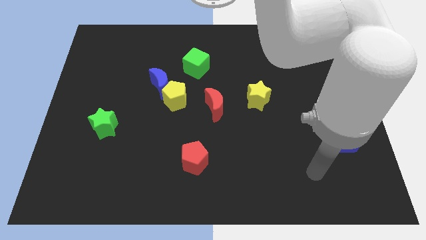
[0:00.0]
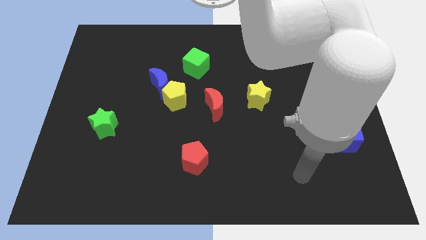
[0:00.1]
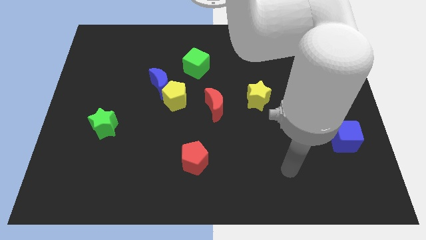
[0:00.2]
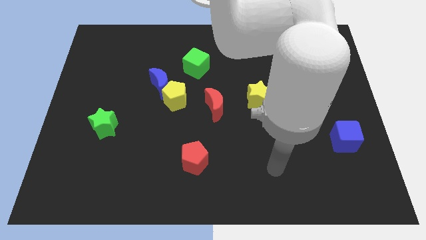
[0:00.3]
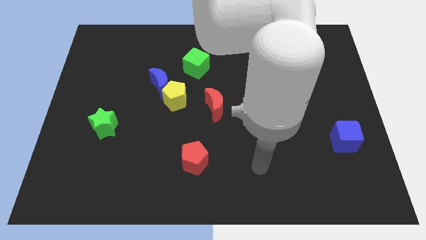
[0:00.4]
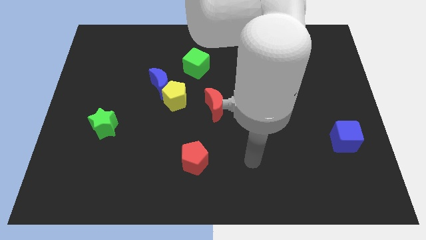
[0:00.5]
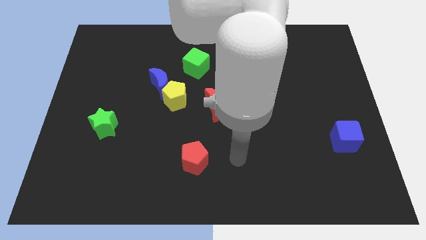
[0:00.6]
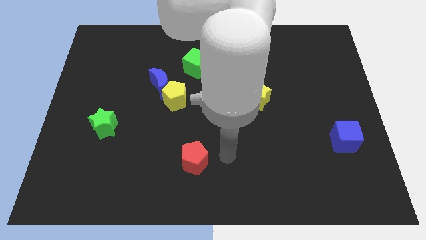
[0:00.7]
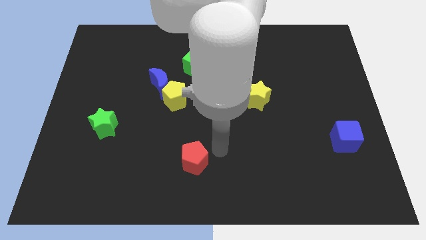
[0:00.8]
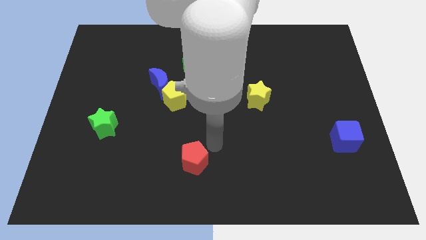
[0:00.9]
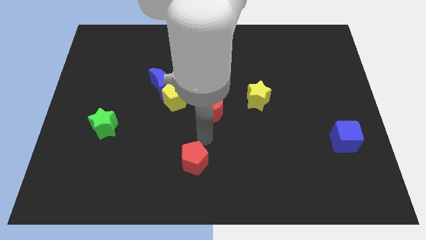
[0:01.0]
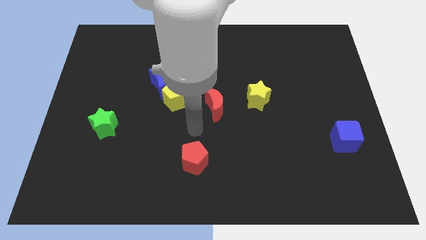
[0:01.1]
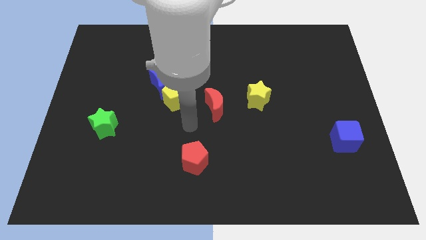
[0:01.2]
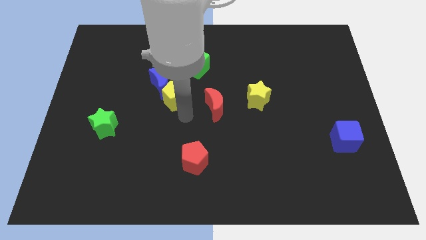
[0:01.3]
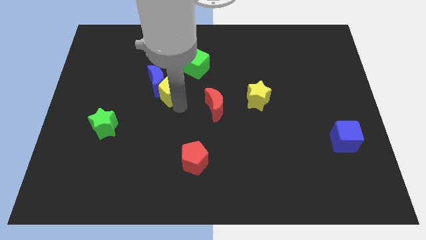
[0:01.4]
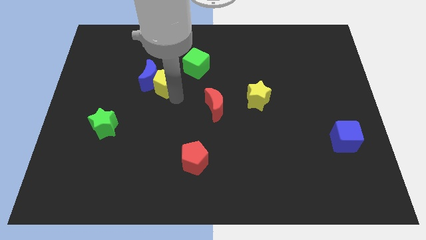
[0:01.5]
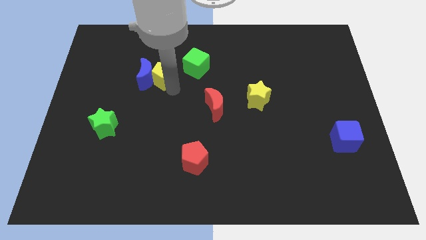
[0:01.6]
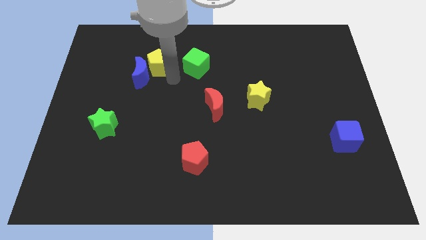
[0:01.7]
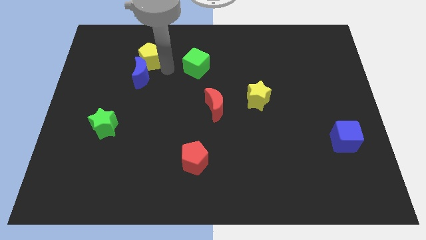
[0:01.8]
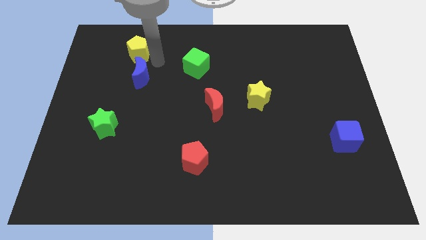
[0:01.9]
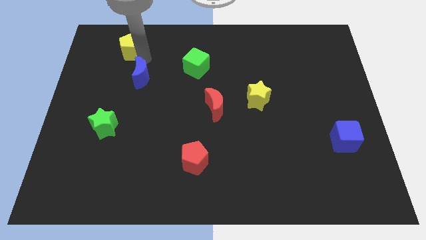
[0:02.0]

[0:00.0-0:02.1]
move the blue moon away from the yellow pentagon

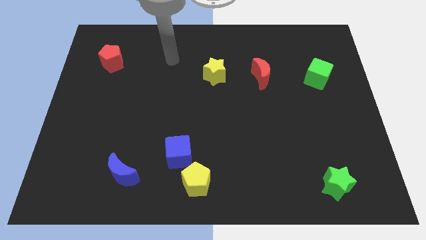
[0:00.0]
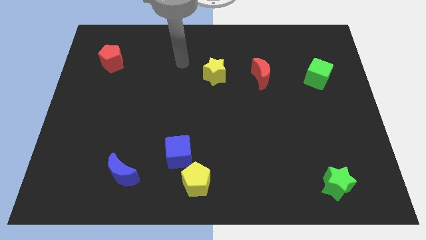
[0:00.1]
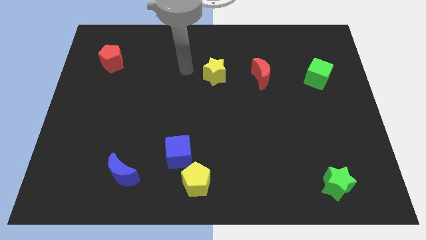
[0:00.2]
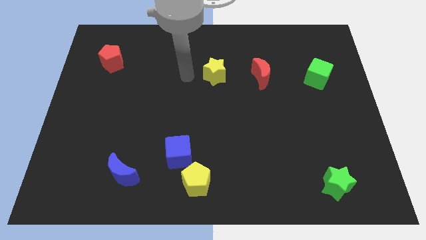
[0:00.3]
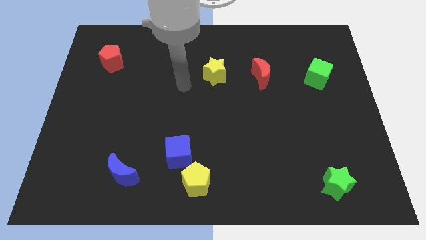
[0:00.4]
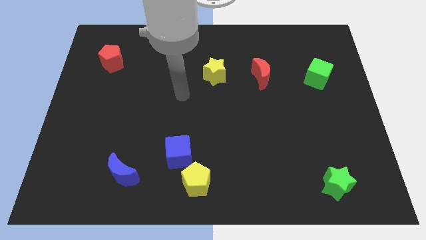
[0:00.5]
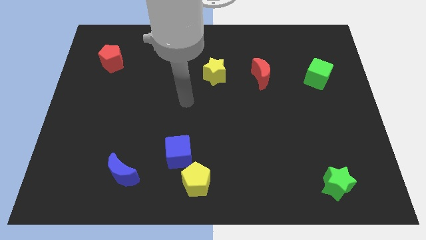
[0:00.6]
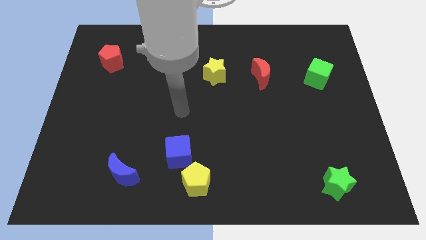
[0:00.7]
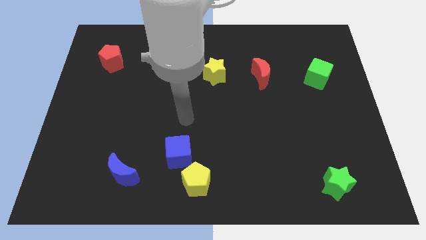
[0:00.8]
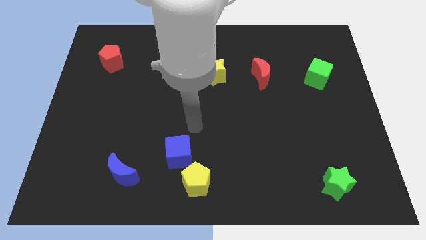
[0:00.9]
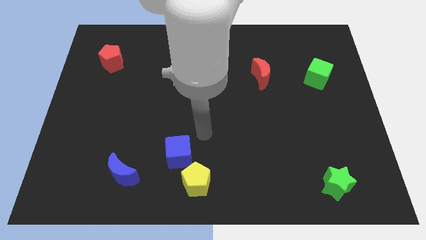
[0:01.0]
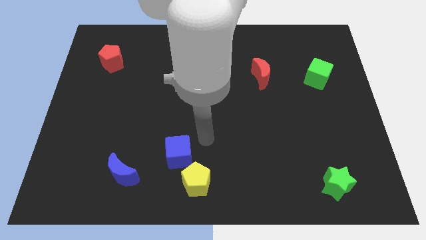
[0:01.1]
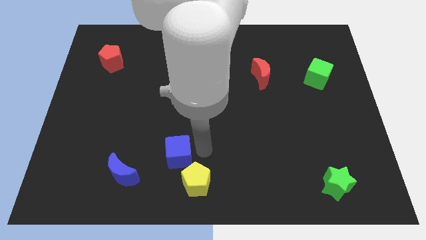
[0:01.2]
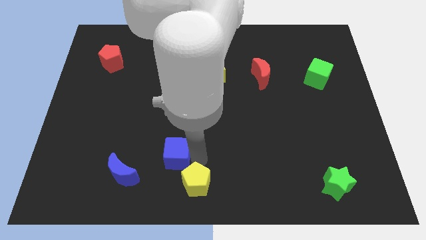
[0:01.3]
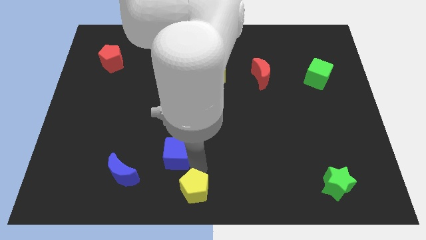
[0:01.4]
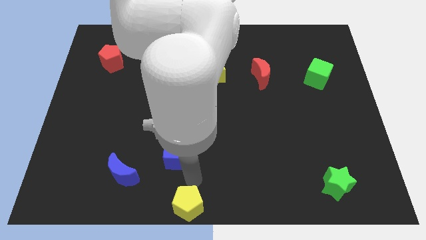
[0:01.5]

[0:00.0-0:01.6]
pull the blue cube apart from the yellow pentagon

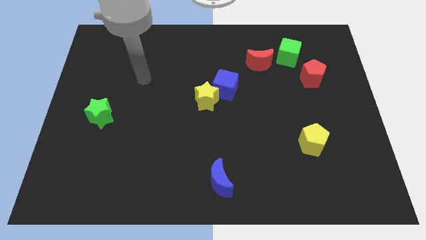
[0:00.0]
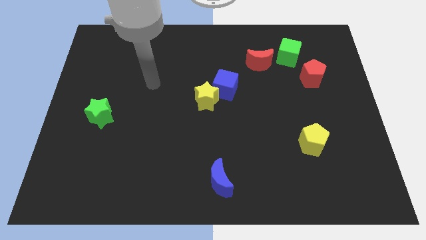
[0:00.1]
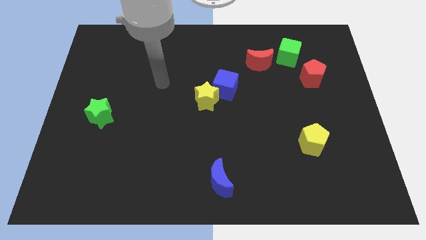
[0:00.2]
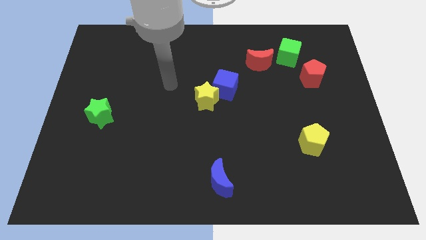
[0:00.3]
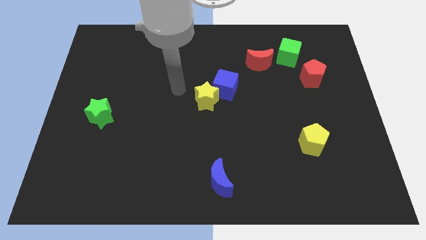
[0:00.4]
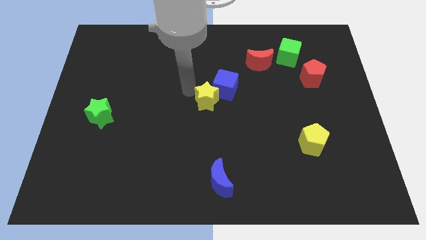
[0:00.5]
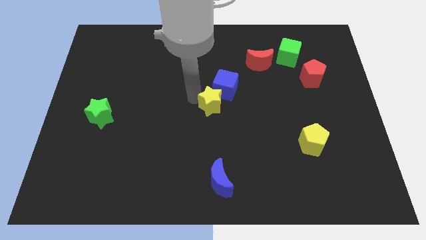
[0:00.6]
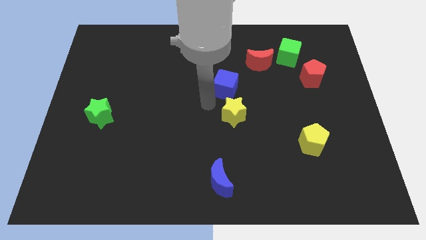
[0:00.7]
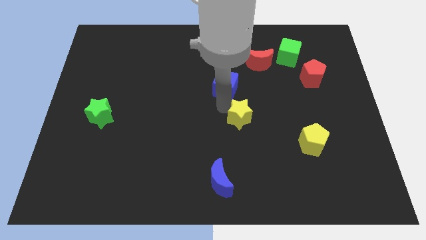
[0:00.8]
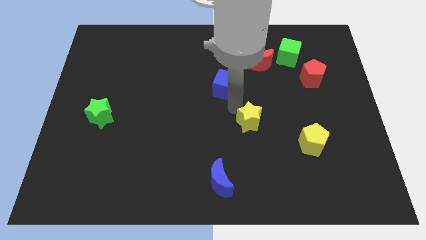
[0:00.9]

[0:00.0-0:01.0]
move the blue cube away from the yellow star

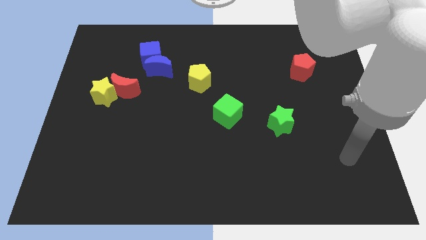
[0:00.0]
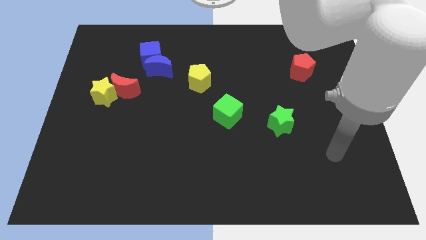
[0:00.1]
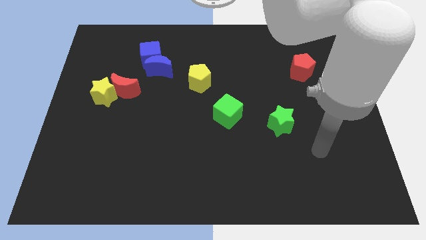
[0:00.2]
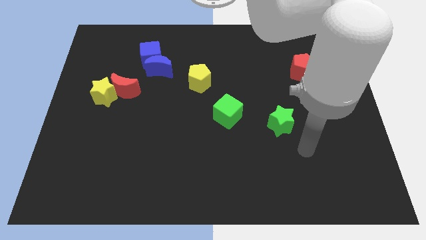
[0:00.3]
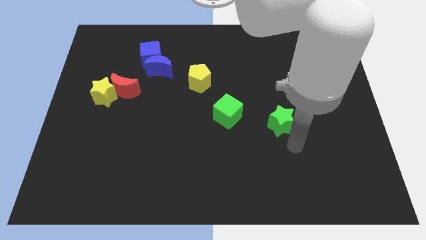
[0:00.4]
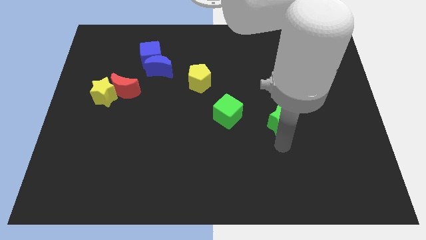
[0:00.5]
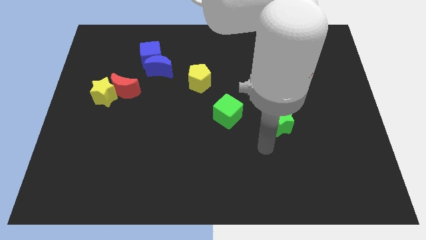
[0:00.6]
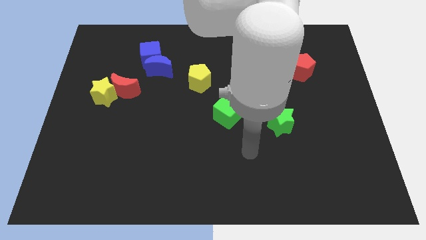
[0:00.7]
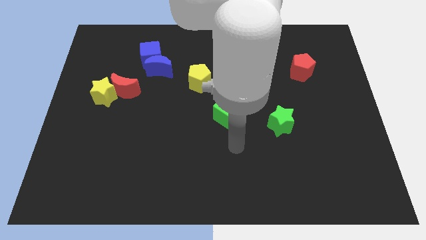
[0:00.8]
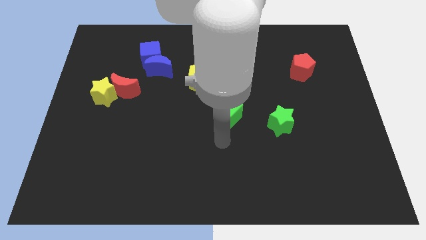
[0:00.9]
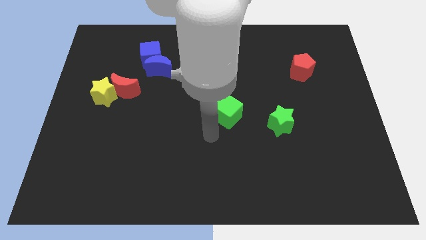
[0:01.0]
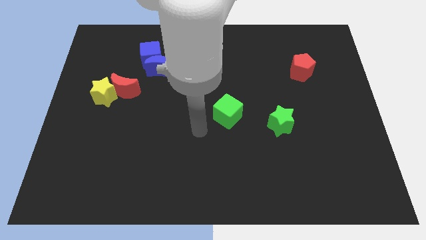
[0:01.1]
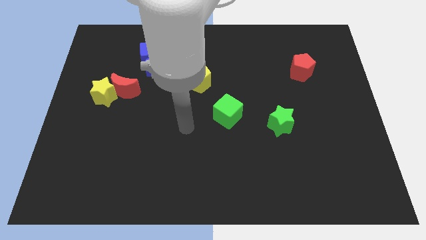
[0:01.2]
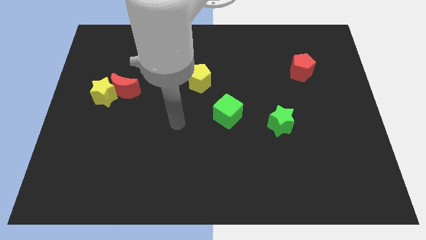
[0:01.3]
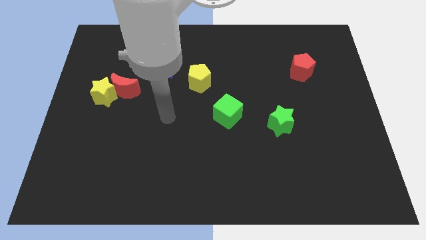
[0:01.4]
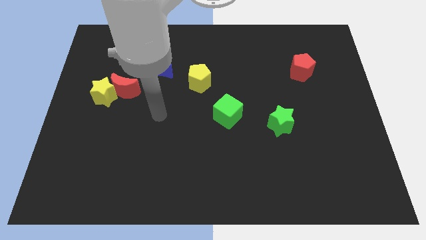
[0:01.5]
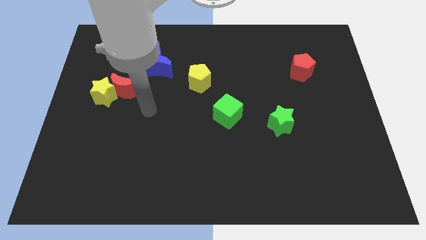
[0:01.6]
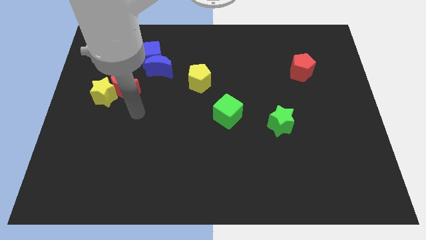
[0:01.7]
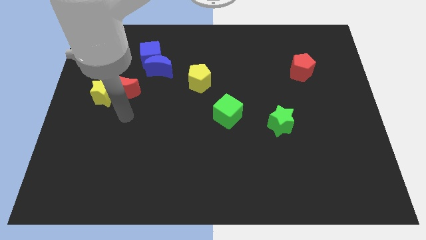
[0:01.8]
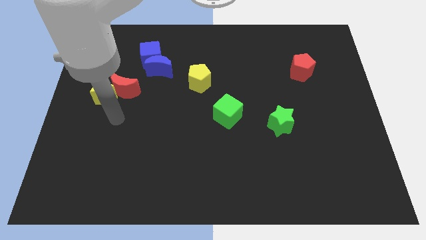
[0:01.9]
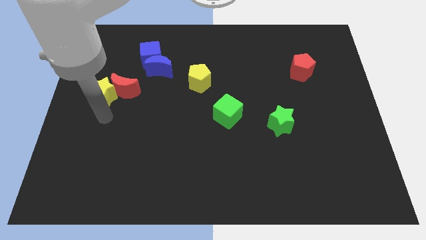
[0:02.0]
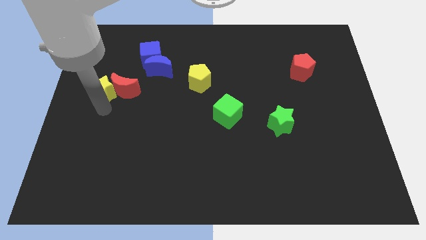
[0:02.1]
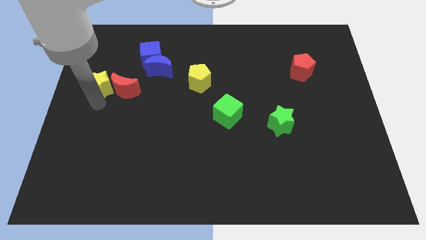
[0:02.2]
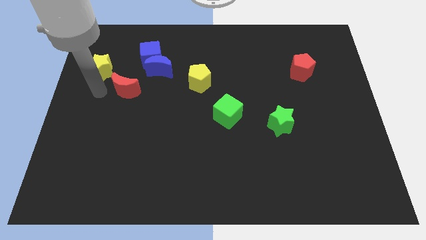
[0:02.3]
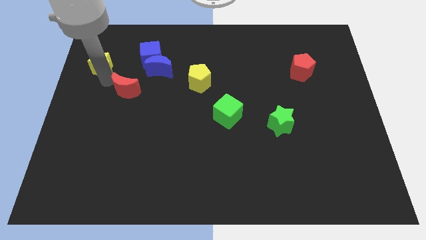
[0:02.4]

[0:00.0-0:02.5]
separate the red moon from the yellow star

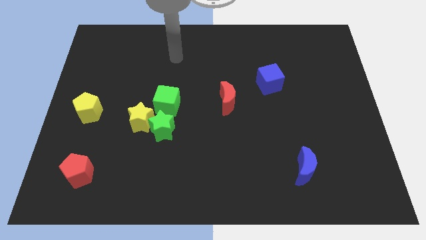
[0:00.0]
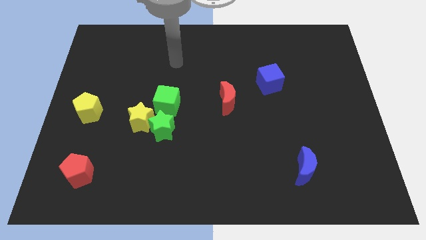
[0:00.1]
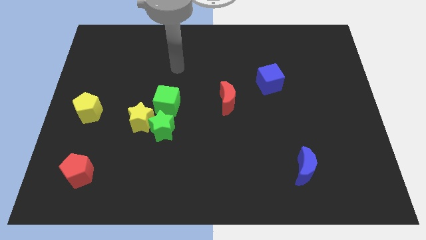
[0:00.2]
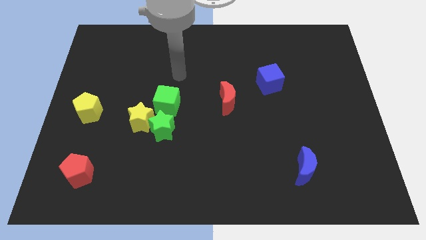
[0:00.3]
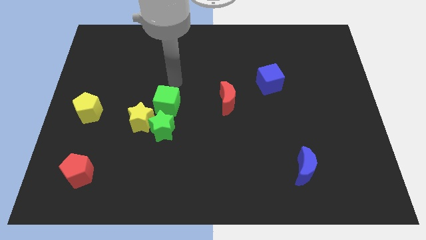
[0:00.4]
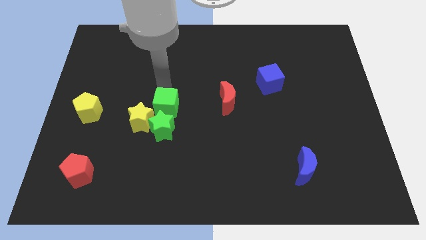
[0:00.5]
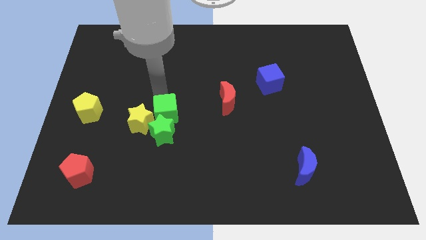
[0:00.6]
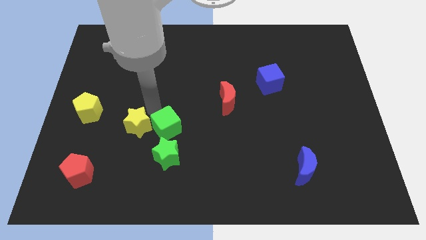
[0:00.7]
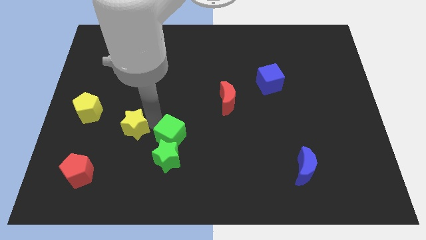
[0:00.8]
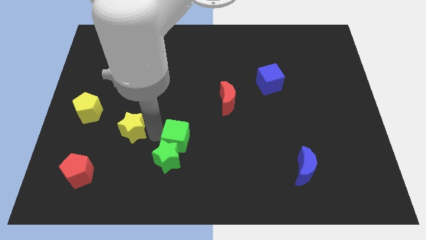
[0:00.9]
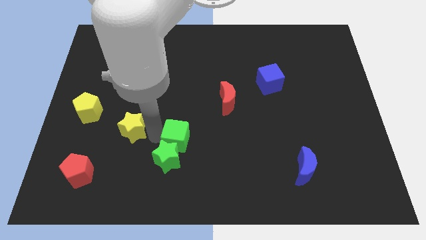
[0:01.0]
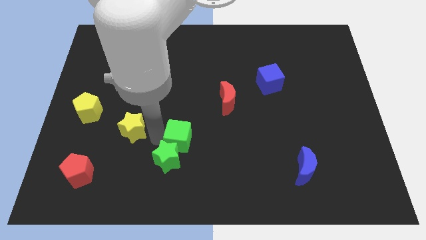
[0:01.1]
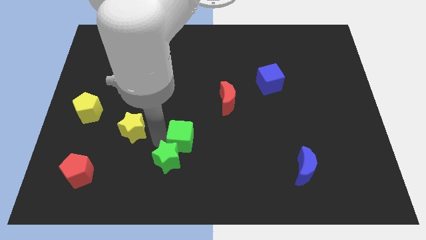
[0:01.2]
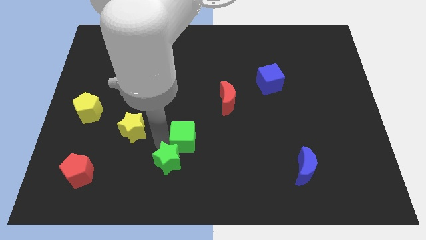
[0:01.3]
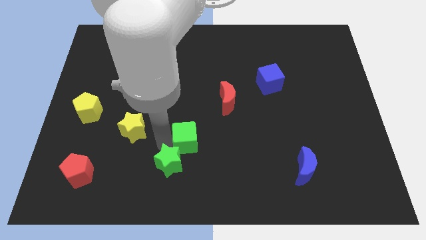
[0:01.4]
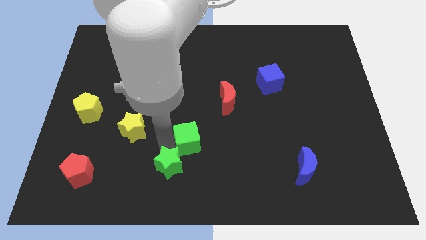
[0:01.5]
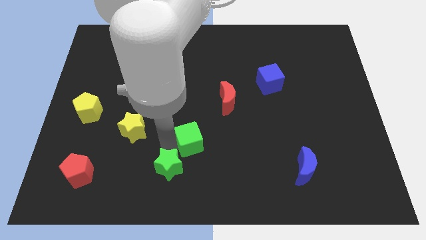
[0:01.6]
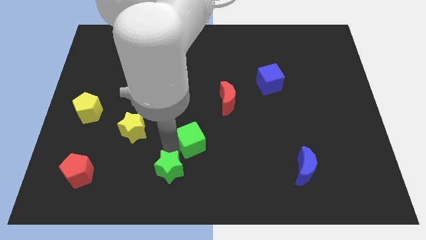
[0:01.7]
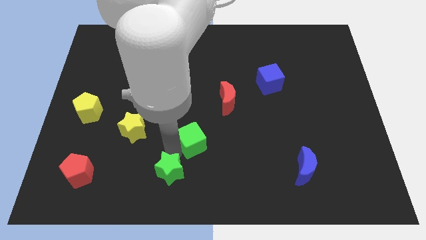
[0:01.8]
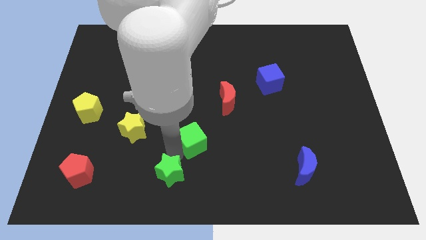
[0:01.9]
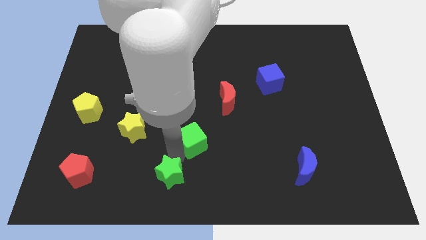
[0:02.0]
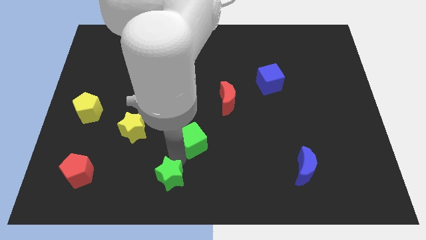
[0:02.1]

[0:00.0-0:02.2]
pull the green star apart from the yellow star and green cube
